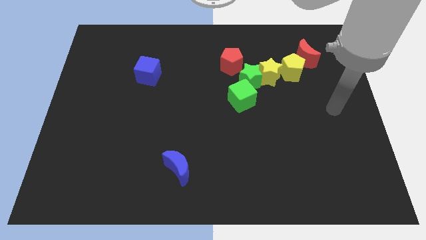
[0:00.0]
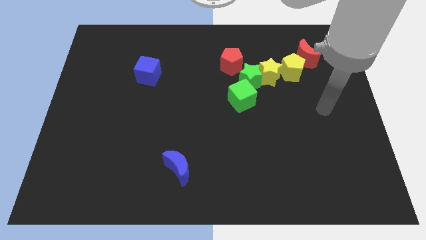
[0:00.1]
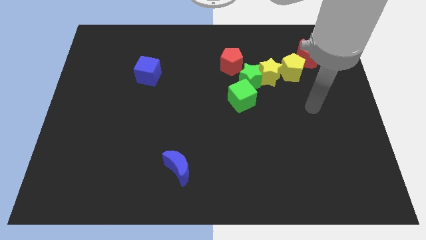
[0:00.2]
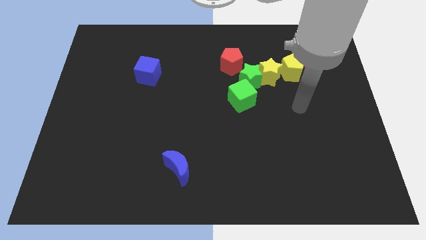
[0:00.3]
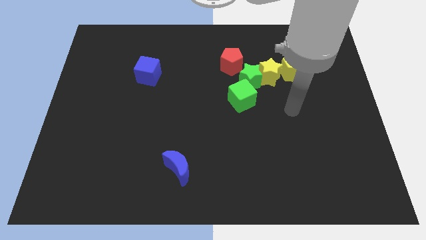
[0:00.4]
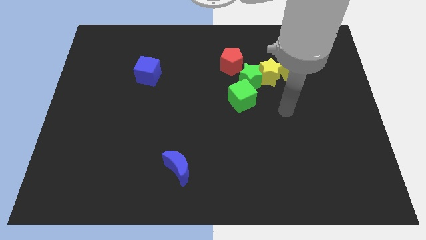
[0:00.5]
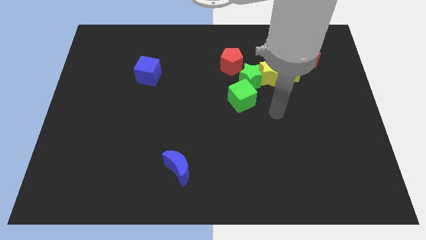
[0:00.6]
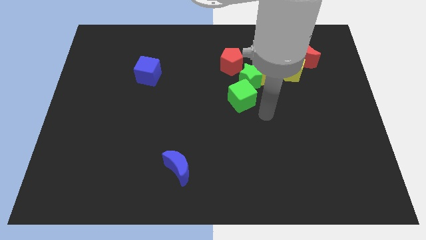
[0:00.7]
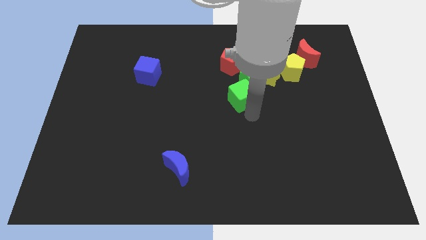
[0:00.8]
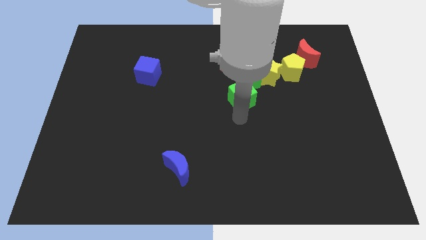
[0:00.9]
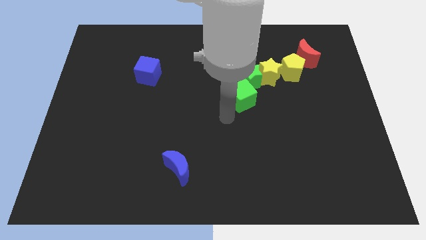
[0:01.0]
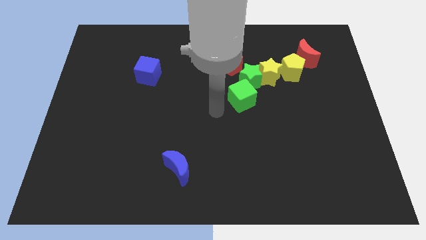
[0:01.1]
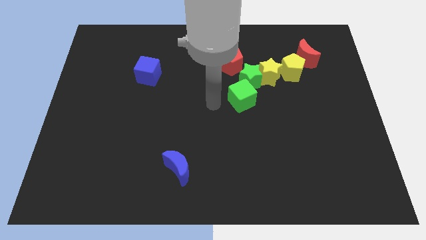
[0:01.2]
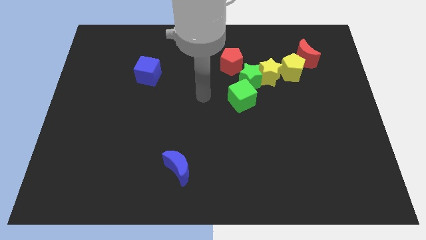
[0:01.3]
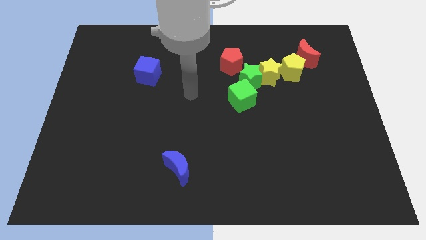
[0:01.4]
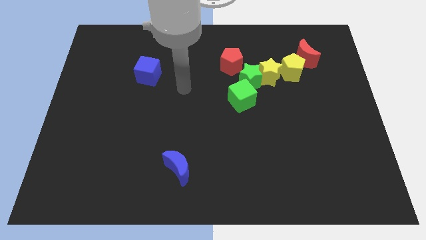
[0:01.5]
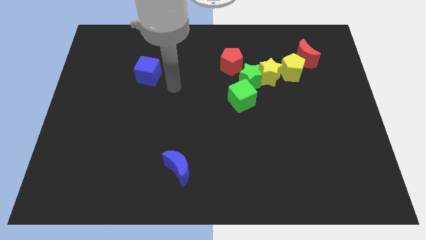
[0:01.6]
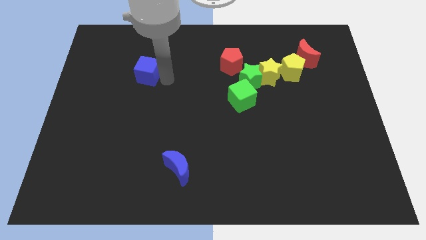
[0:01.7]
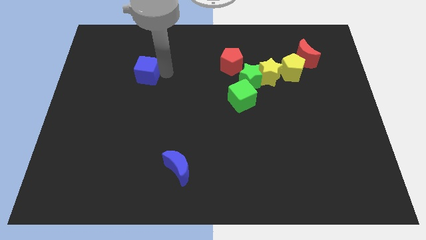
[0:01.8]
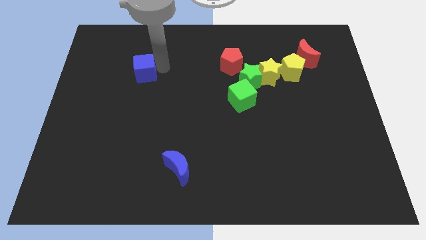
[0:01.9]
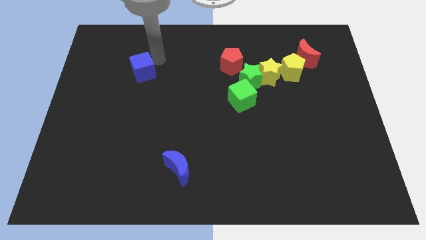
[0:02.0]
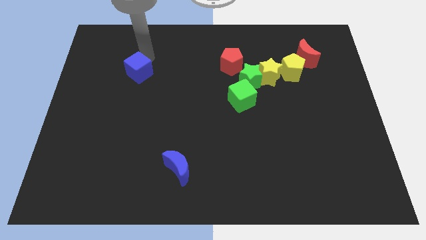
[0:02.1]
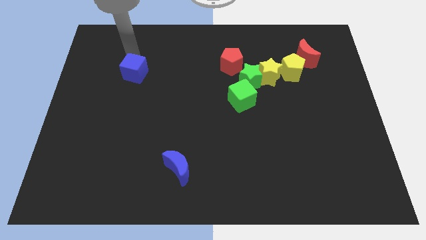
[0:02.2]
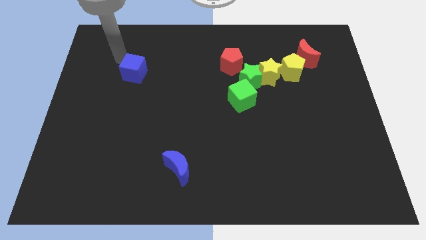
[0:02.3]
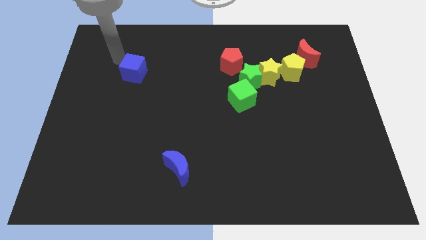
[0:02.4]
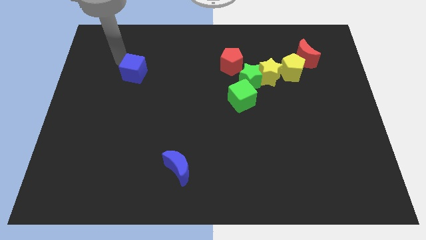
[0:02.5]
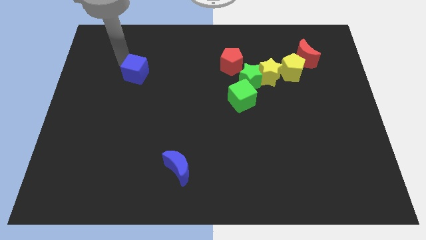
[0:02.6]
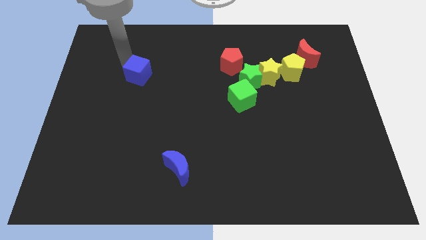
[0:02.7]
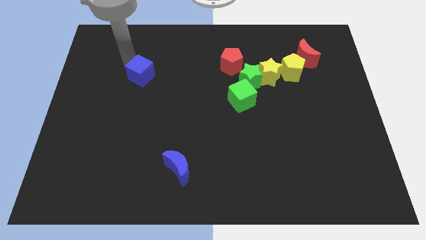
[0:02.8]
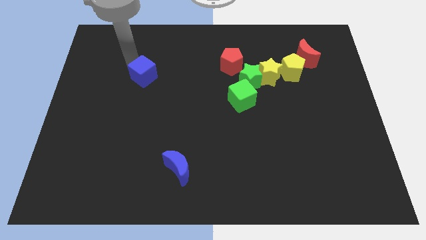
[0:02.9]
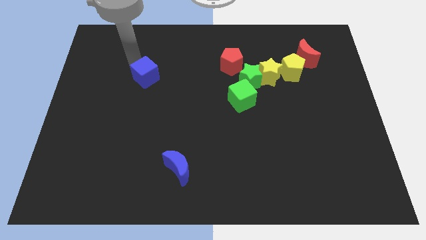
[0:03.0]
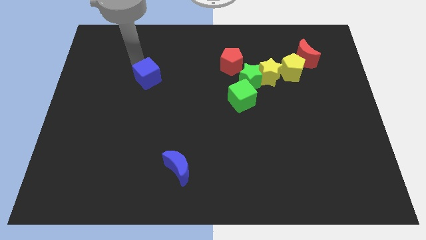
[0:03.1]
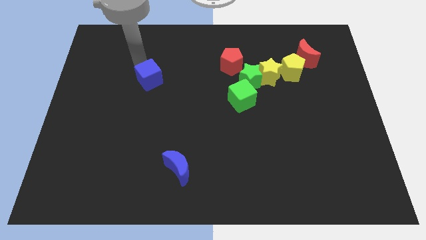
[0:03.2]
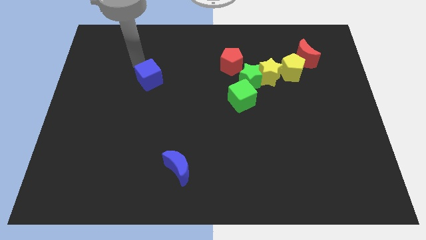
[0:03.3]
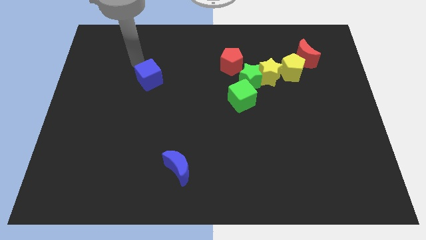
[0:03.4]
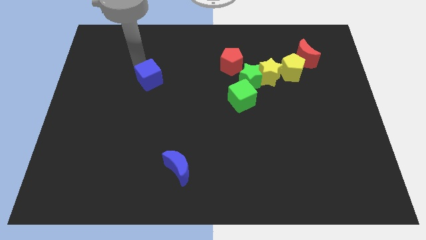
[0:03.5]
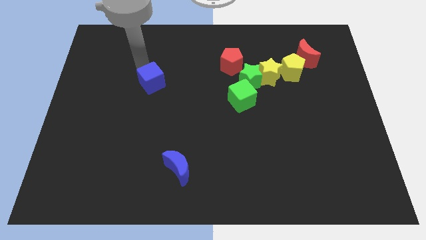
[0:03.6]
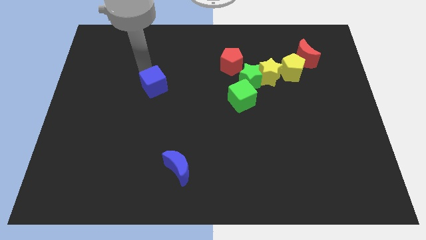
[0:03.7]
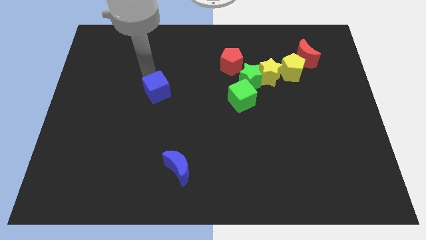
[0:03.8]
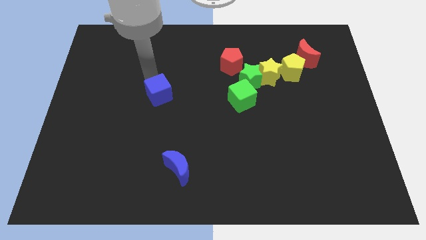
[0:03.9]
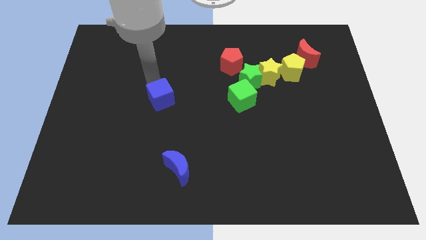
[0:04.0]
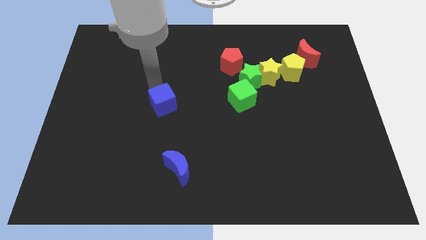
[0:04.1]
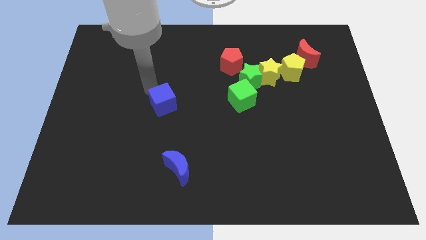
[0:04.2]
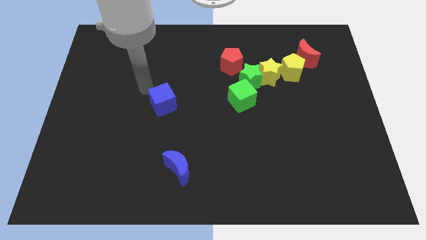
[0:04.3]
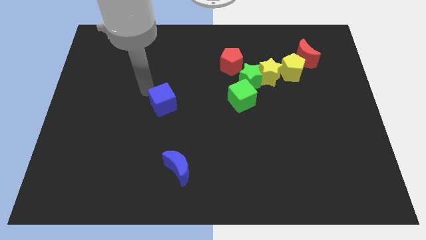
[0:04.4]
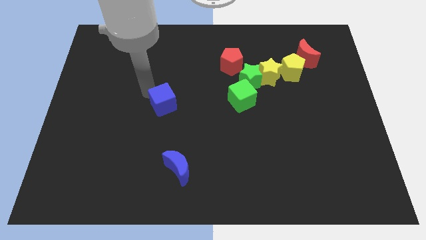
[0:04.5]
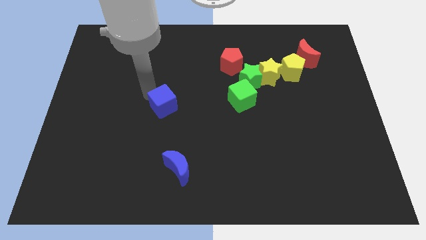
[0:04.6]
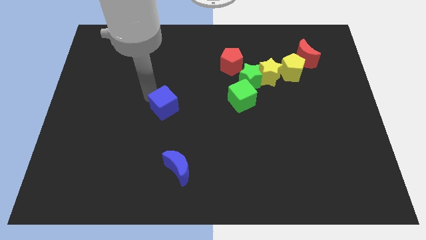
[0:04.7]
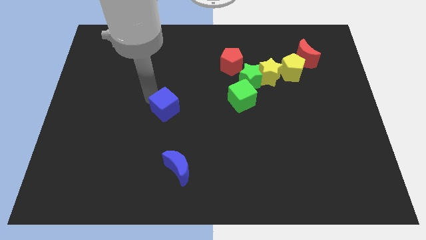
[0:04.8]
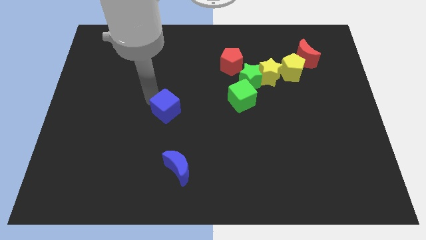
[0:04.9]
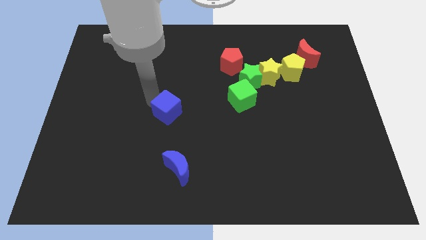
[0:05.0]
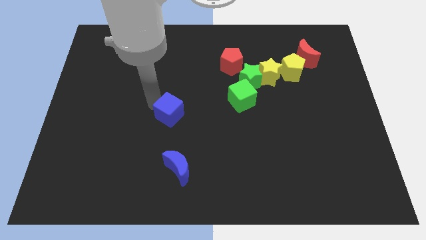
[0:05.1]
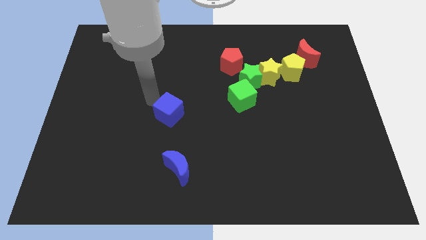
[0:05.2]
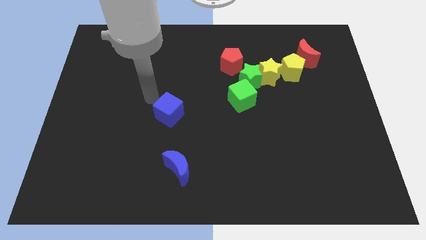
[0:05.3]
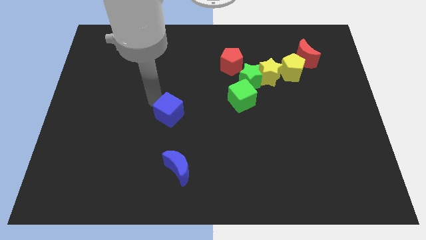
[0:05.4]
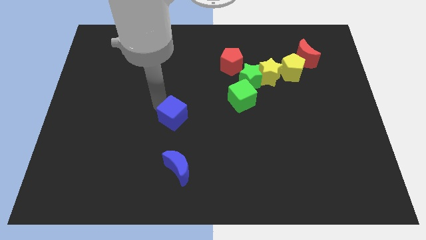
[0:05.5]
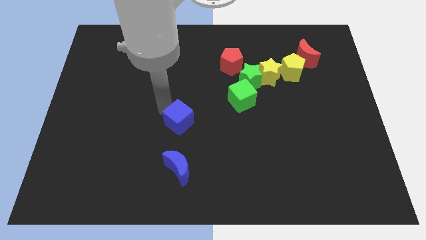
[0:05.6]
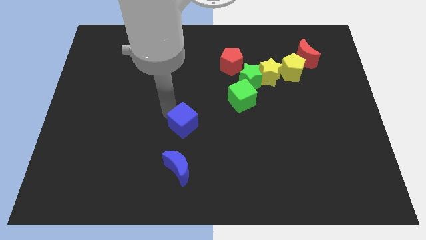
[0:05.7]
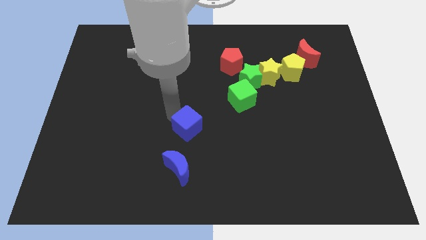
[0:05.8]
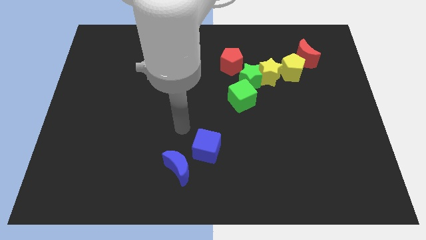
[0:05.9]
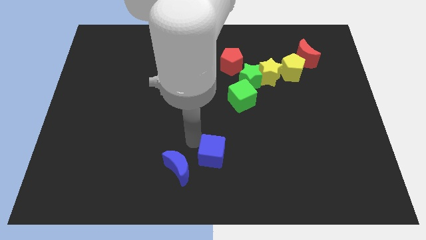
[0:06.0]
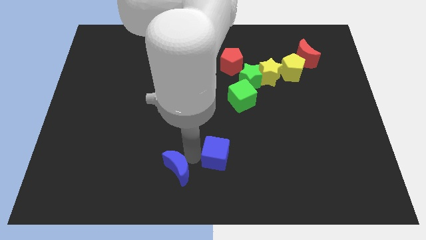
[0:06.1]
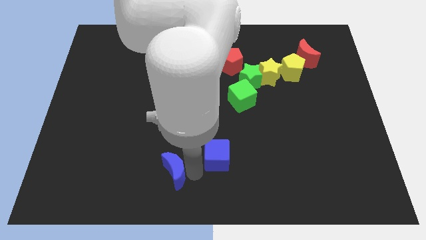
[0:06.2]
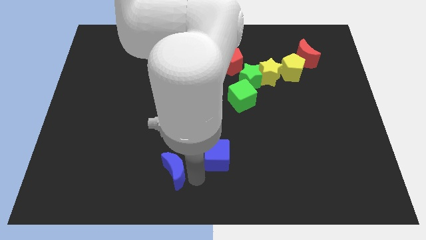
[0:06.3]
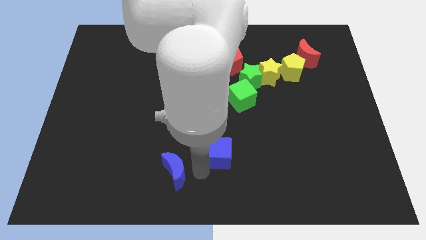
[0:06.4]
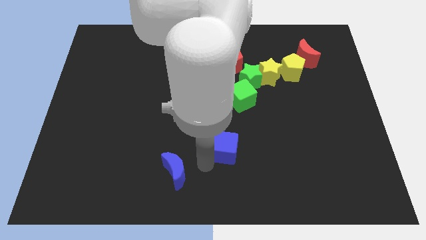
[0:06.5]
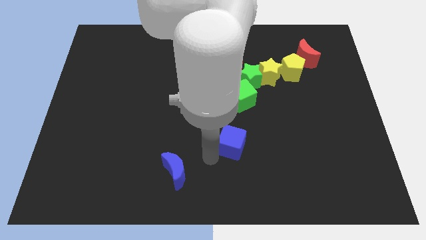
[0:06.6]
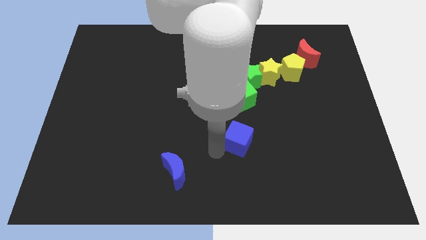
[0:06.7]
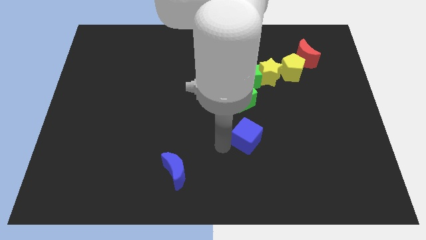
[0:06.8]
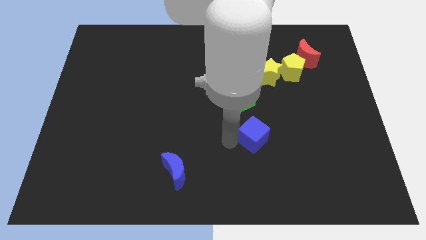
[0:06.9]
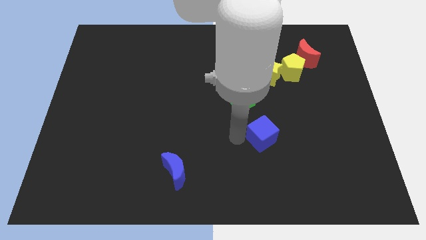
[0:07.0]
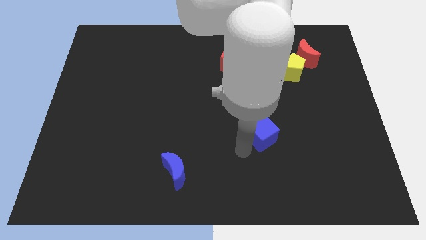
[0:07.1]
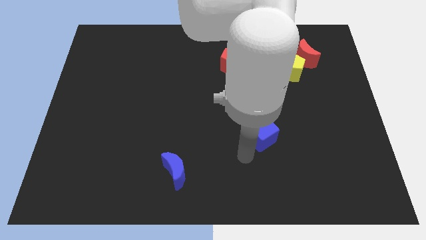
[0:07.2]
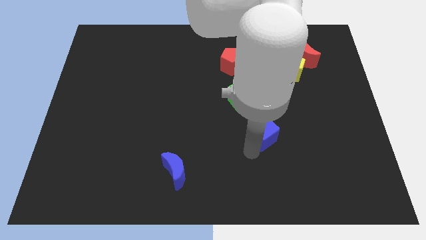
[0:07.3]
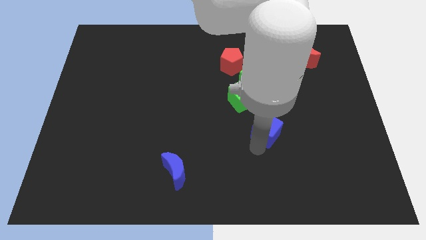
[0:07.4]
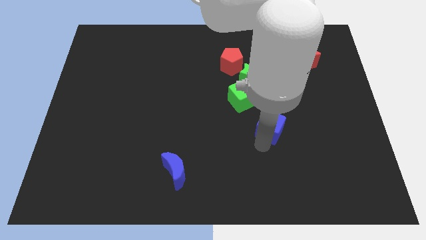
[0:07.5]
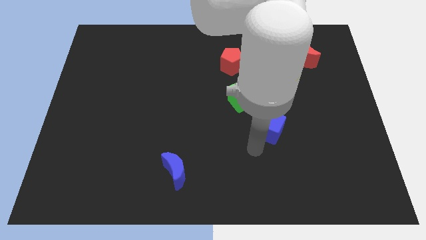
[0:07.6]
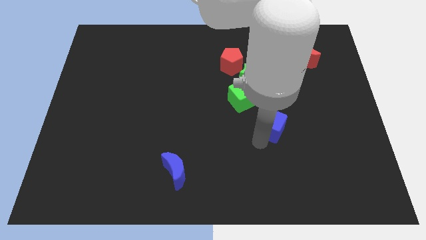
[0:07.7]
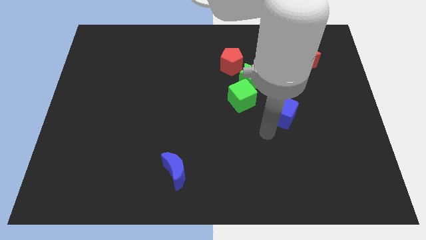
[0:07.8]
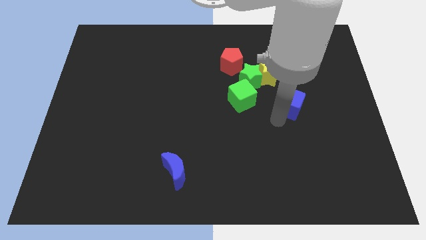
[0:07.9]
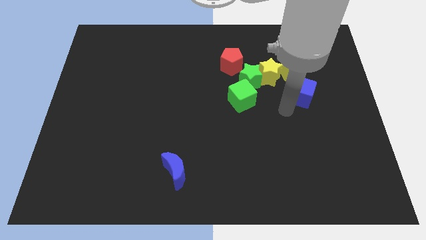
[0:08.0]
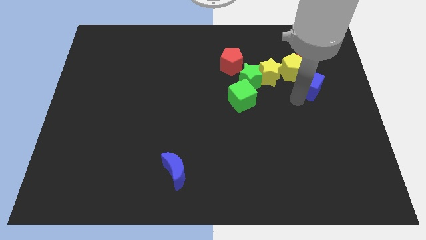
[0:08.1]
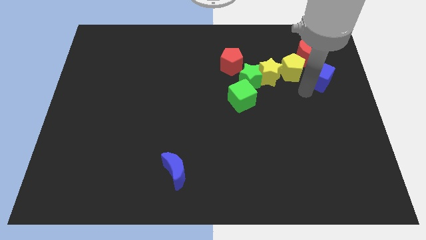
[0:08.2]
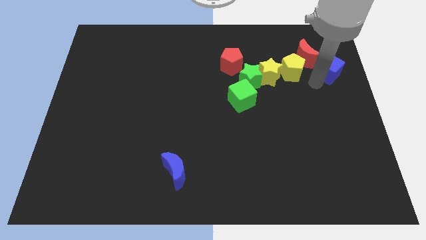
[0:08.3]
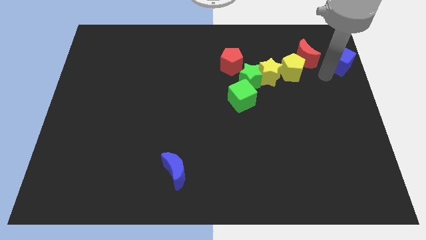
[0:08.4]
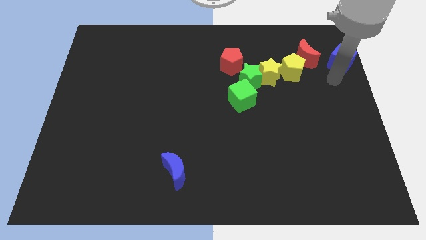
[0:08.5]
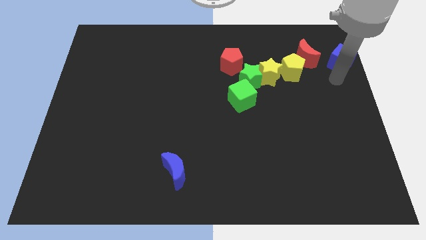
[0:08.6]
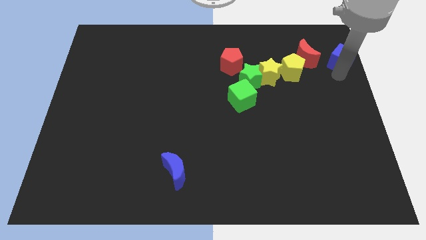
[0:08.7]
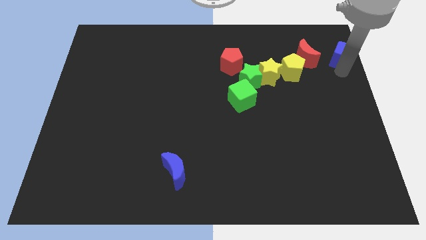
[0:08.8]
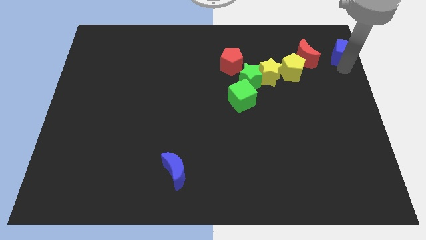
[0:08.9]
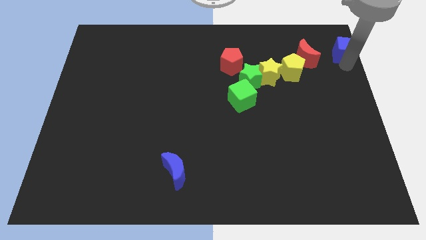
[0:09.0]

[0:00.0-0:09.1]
slide the blue cube to the top right
